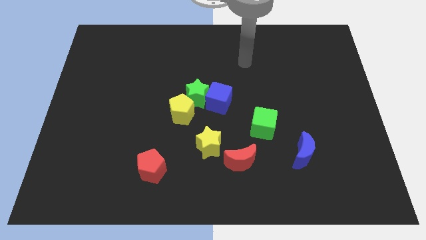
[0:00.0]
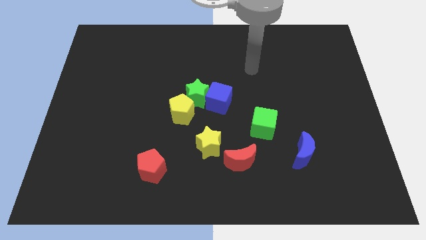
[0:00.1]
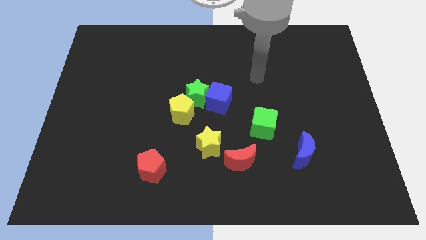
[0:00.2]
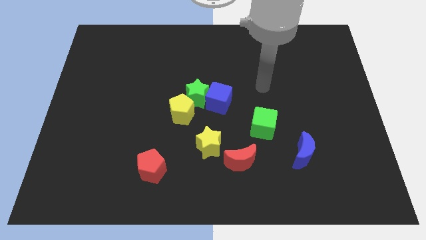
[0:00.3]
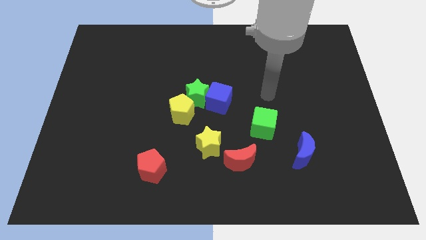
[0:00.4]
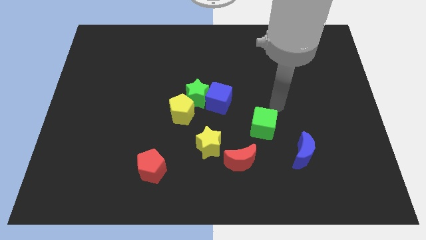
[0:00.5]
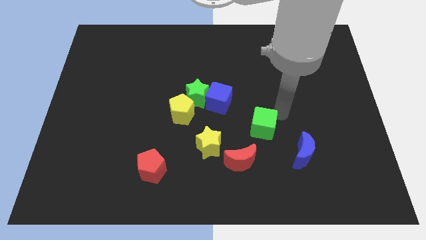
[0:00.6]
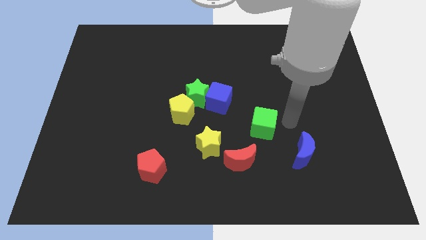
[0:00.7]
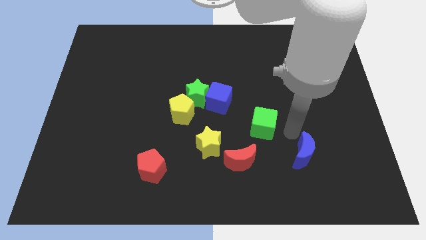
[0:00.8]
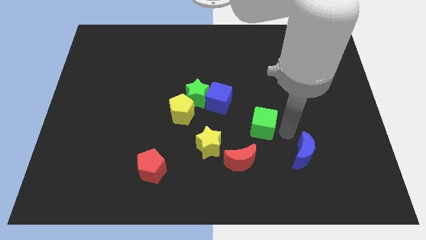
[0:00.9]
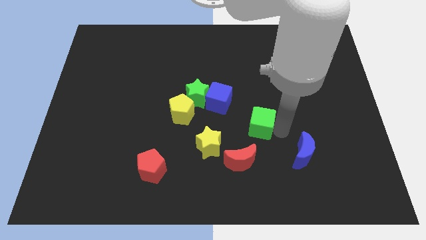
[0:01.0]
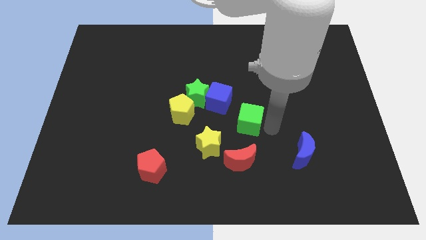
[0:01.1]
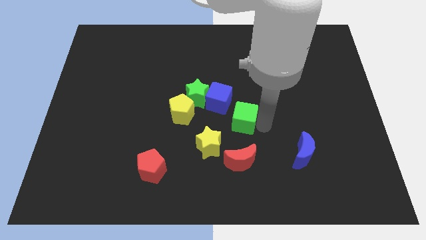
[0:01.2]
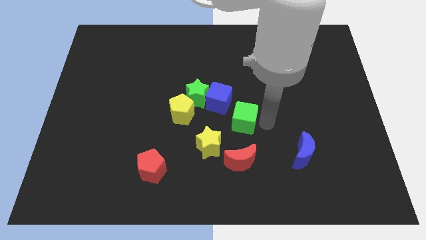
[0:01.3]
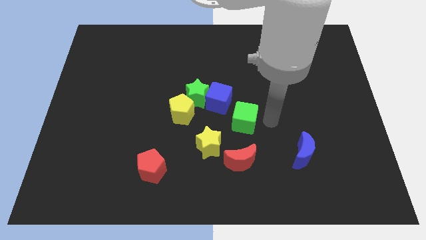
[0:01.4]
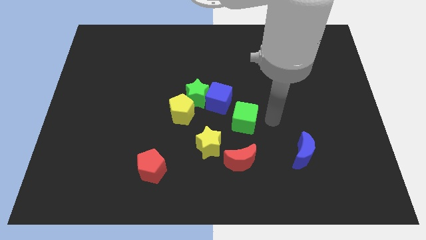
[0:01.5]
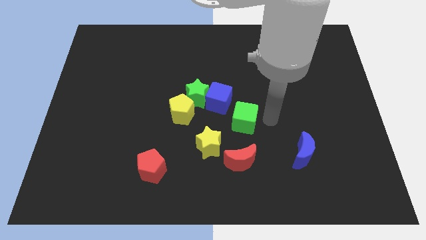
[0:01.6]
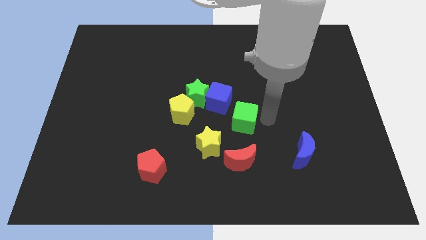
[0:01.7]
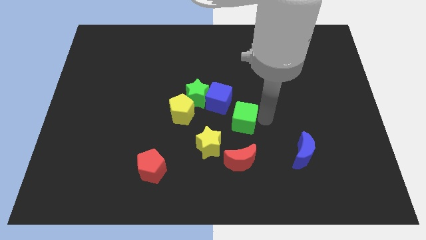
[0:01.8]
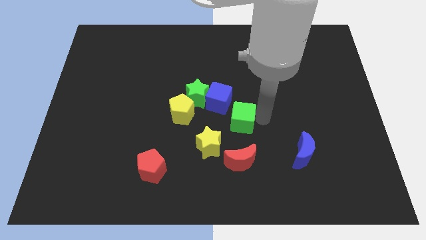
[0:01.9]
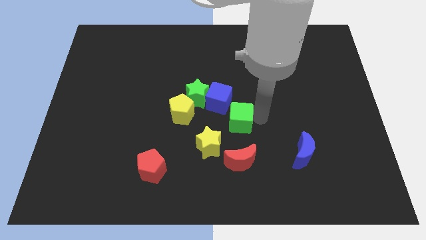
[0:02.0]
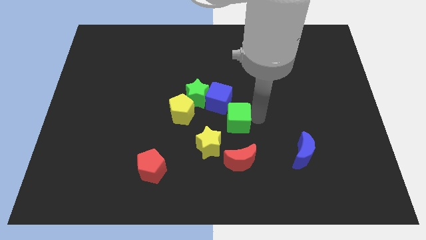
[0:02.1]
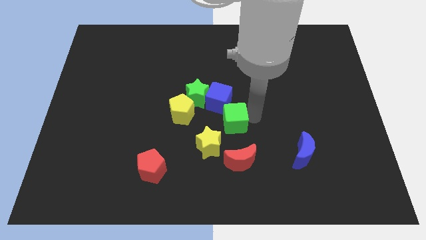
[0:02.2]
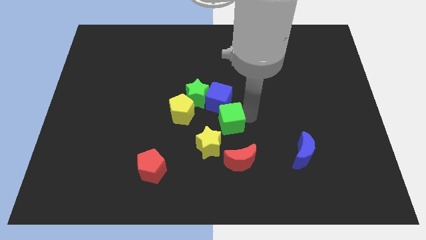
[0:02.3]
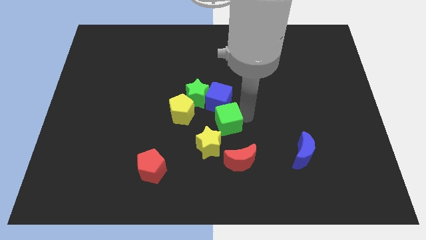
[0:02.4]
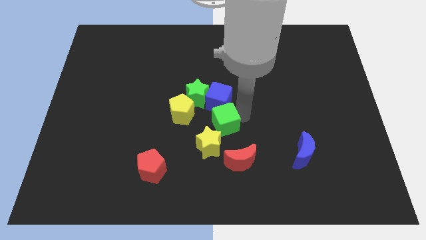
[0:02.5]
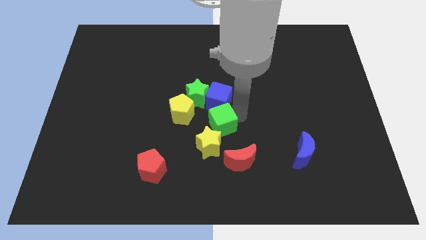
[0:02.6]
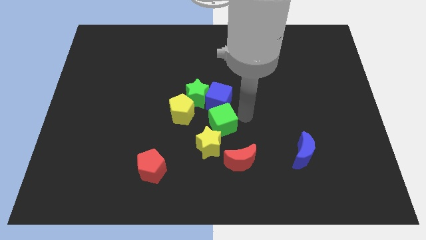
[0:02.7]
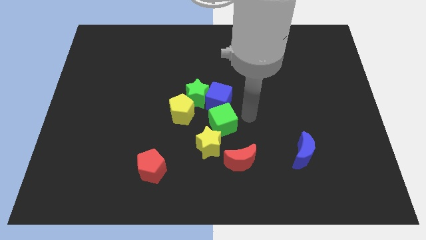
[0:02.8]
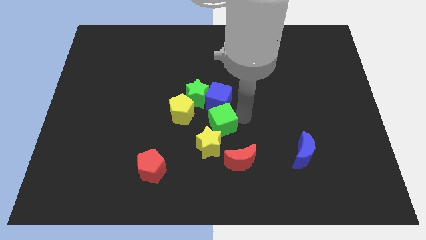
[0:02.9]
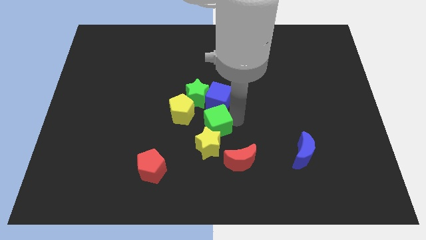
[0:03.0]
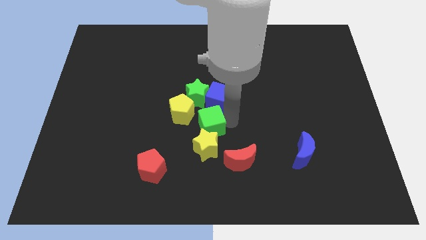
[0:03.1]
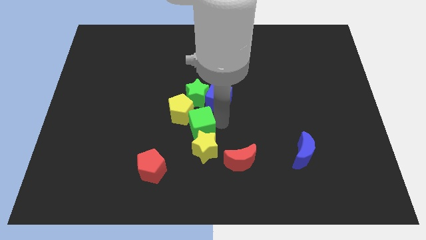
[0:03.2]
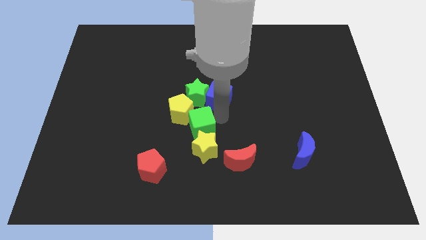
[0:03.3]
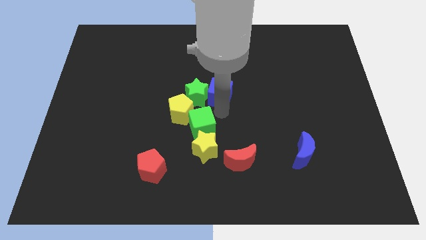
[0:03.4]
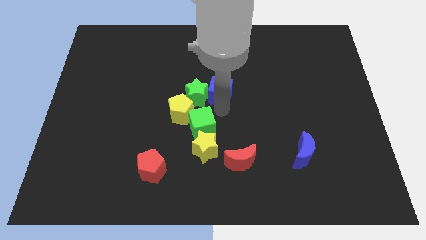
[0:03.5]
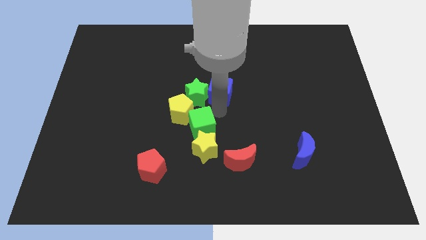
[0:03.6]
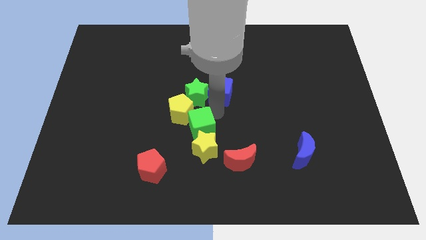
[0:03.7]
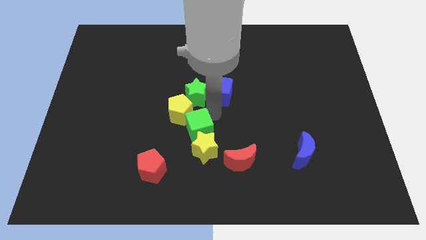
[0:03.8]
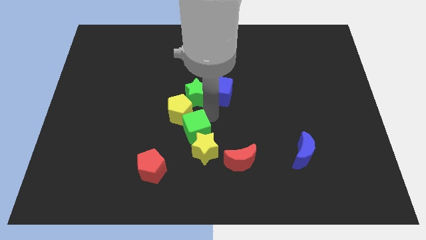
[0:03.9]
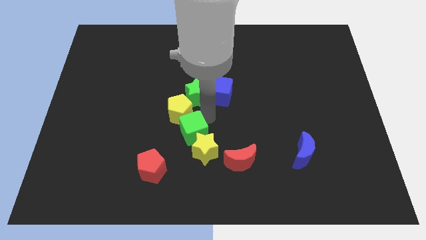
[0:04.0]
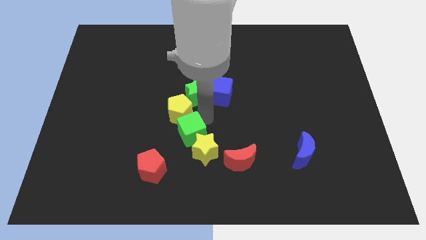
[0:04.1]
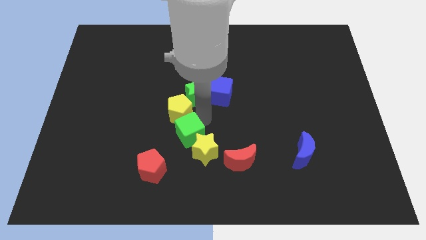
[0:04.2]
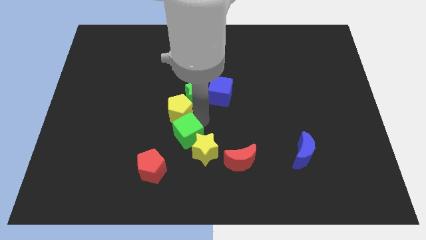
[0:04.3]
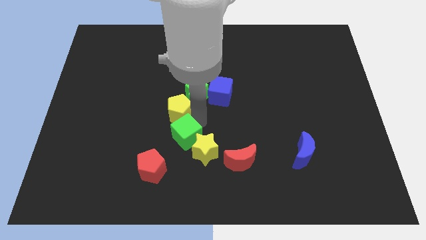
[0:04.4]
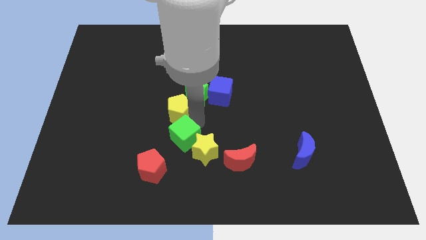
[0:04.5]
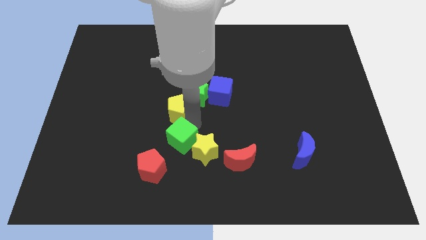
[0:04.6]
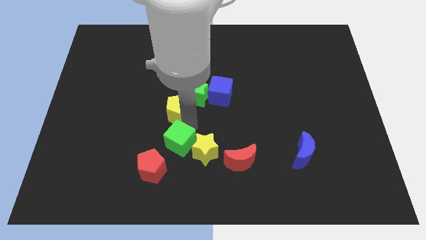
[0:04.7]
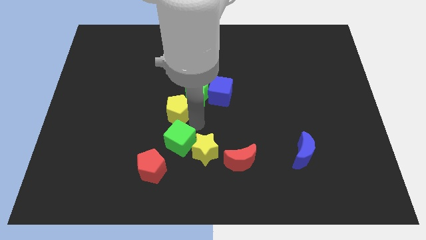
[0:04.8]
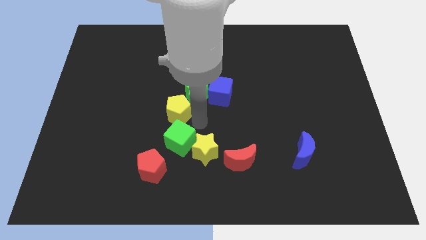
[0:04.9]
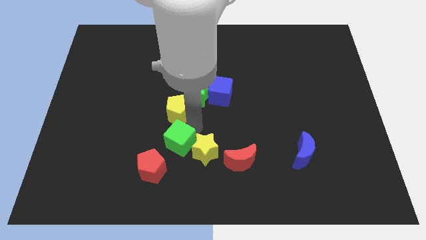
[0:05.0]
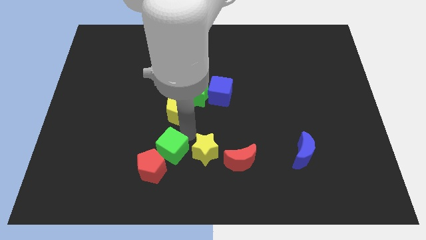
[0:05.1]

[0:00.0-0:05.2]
put the green cube towards the red pentagon

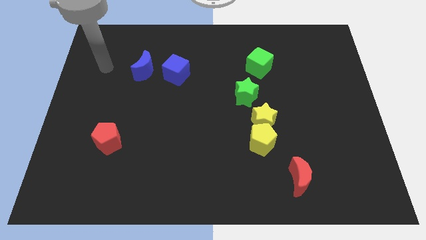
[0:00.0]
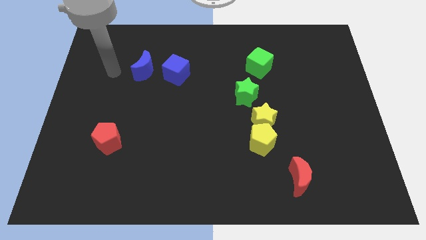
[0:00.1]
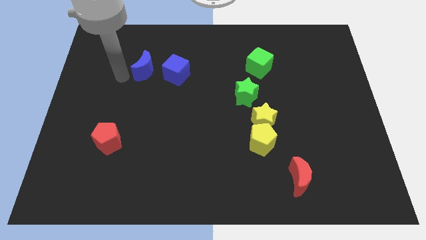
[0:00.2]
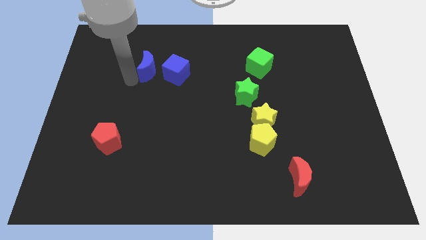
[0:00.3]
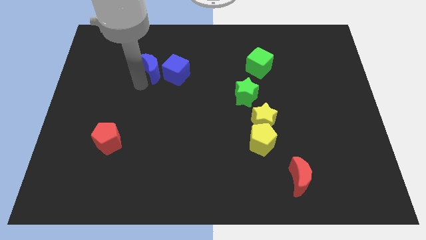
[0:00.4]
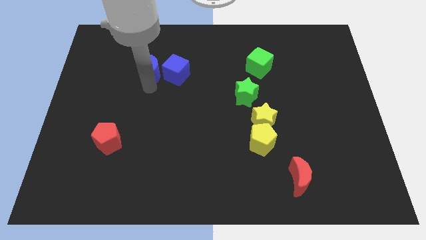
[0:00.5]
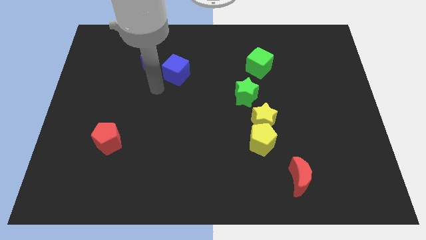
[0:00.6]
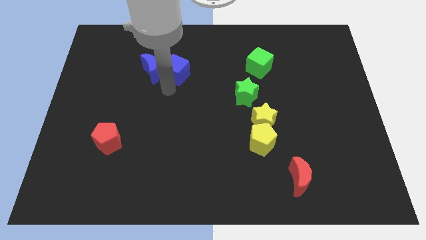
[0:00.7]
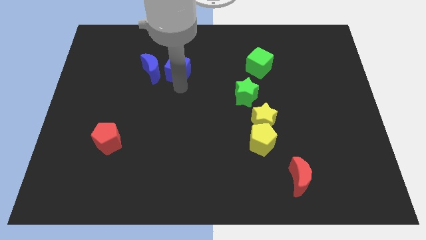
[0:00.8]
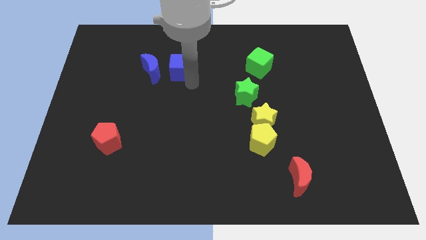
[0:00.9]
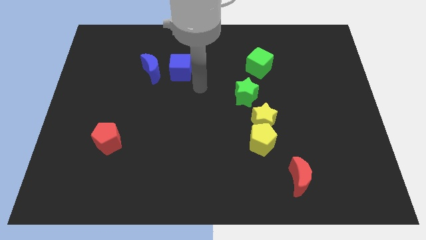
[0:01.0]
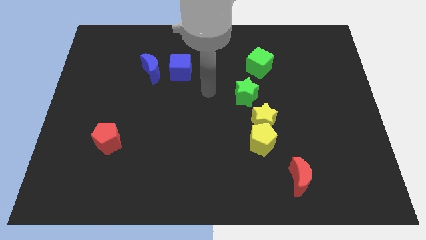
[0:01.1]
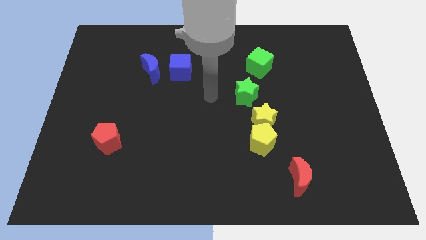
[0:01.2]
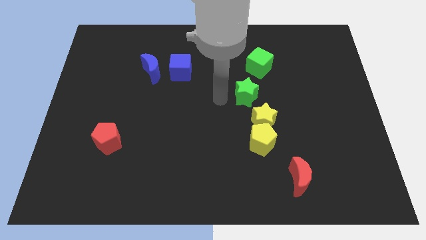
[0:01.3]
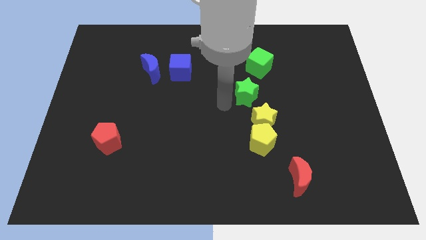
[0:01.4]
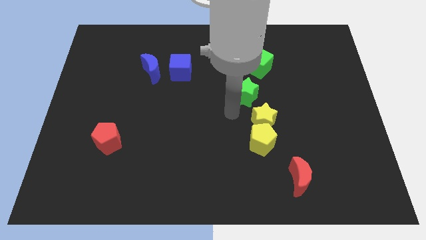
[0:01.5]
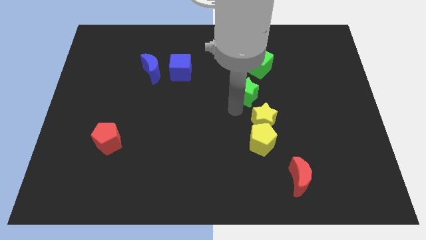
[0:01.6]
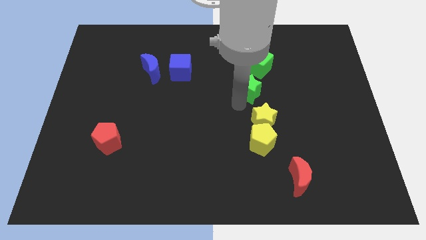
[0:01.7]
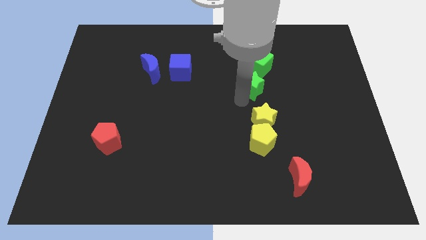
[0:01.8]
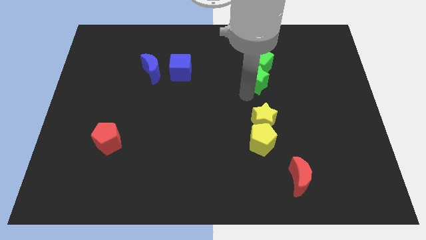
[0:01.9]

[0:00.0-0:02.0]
push the green star towards the green cube
